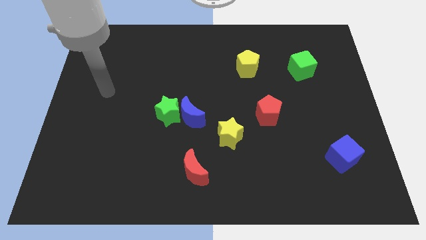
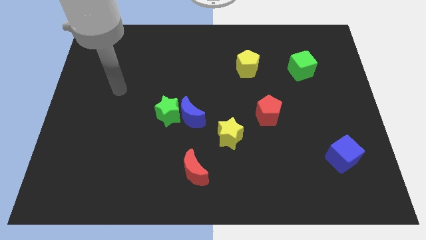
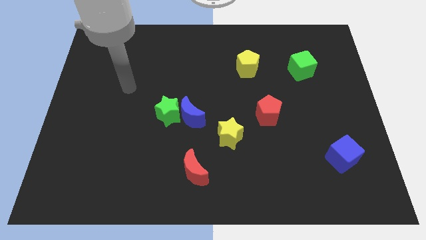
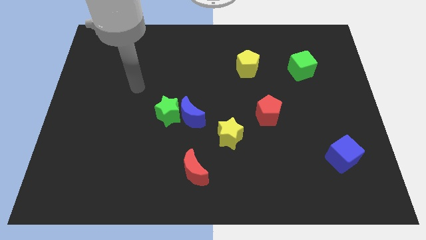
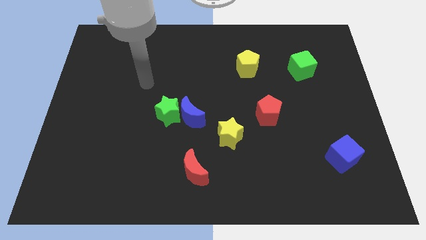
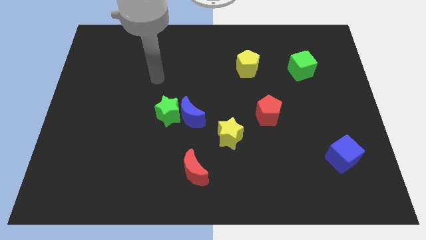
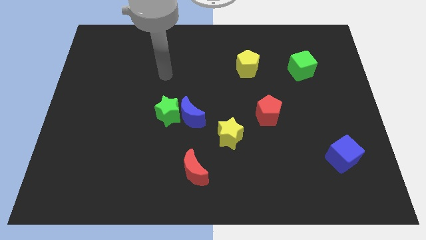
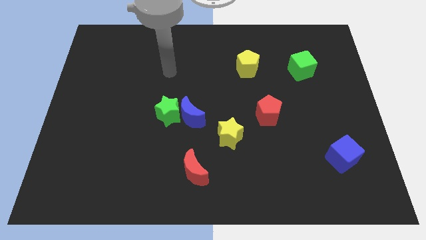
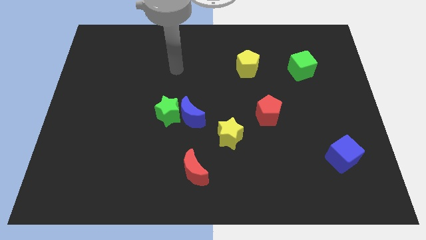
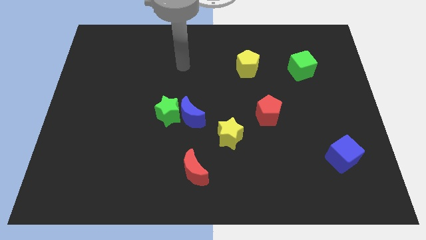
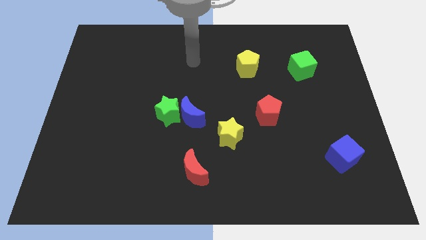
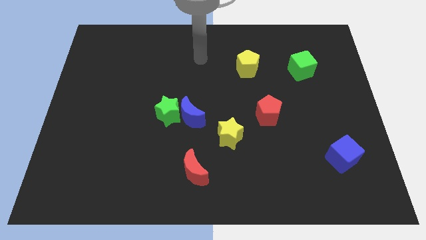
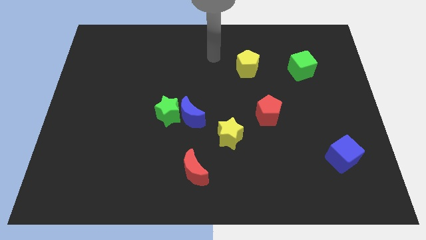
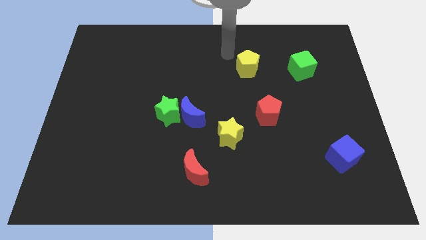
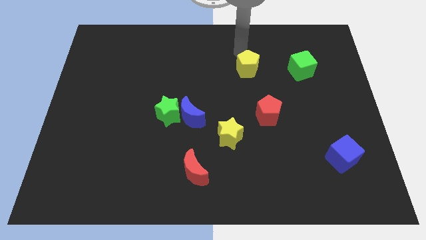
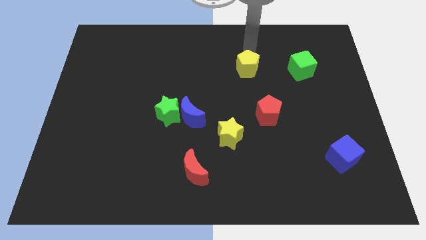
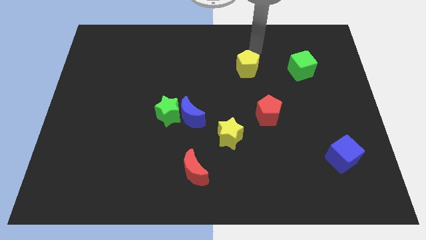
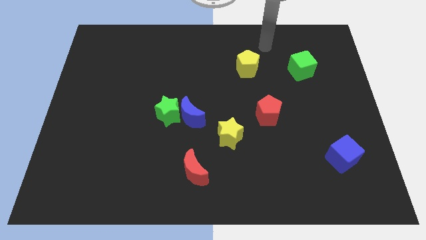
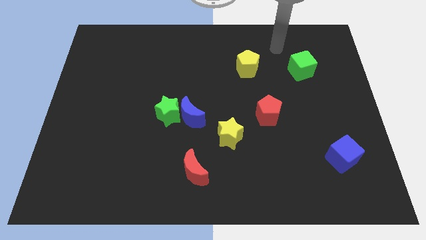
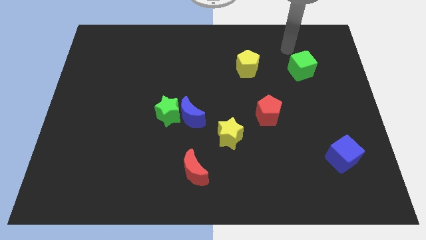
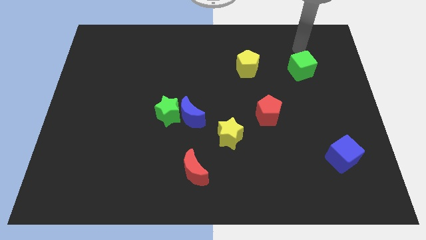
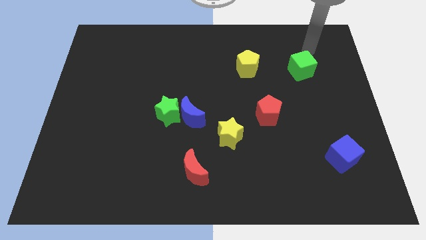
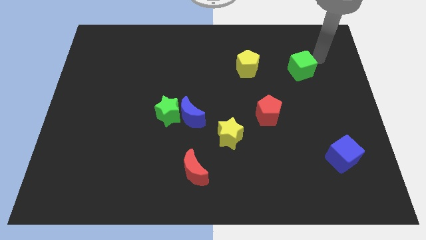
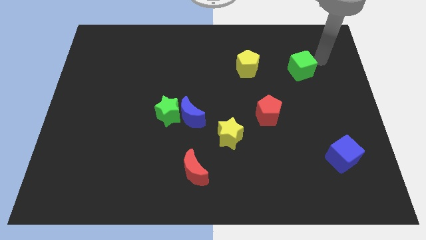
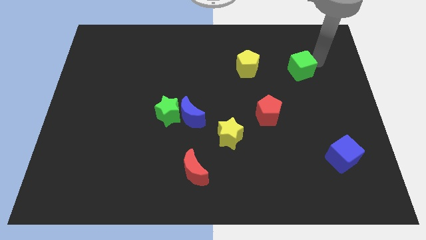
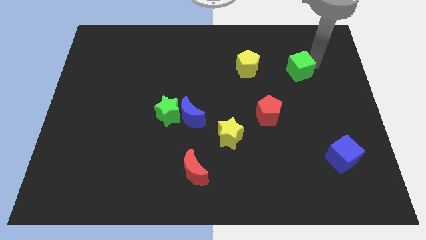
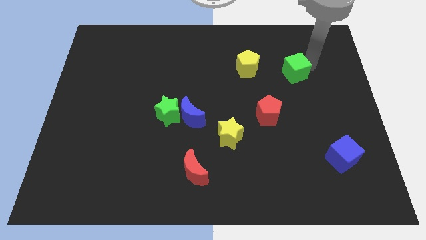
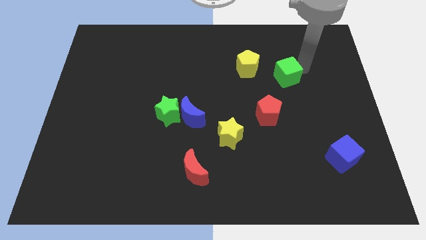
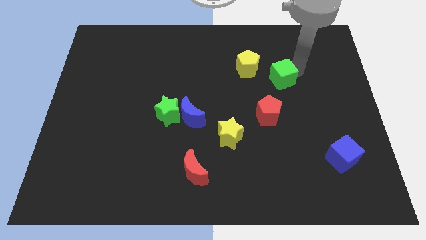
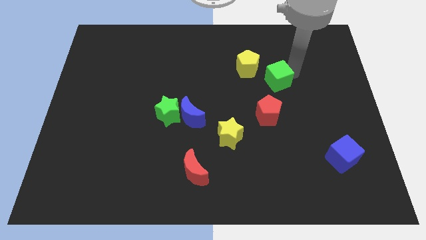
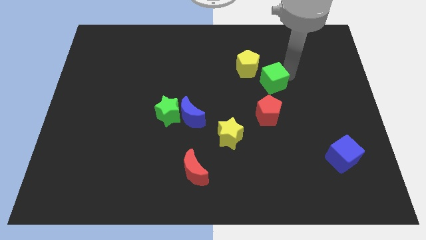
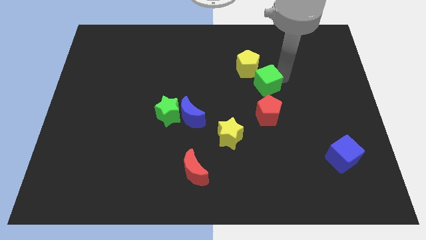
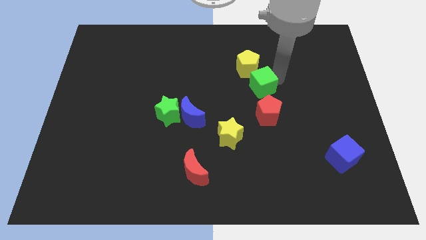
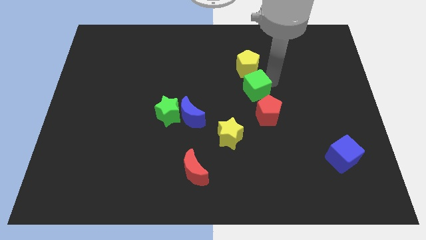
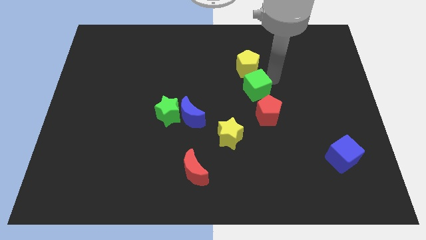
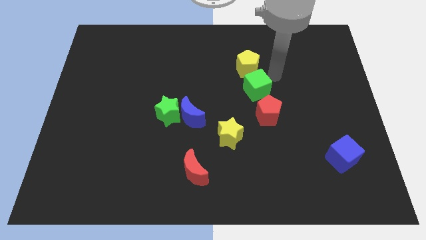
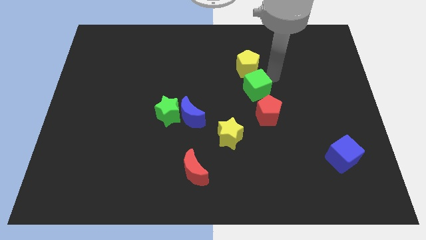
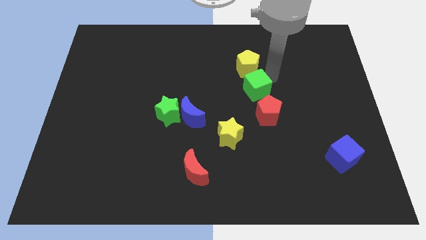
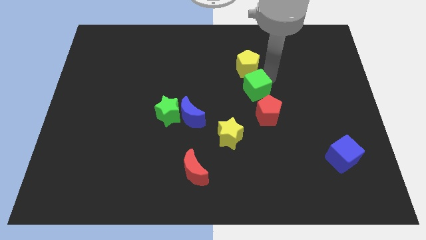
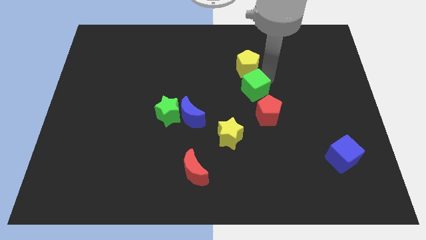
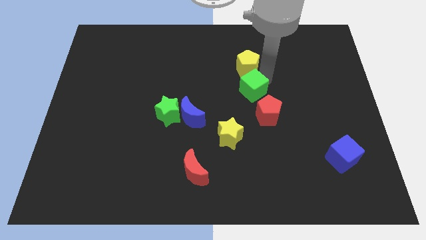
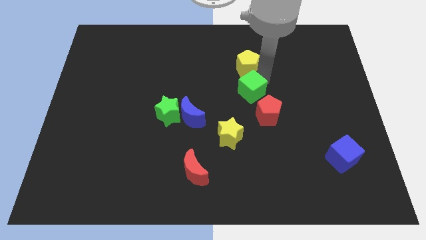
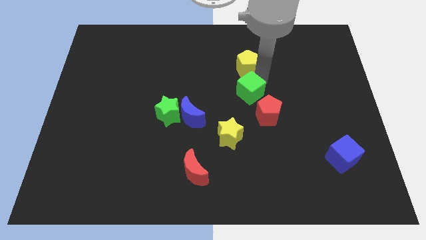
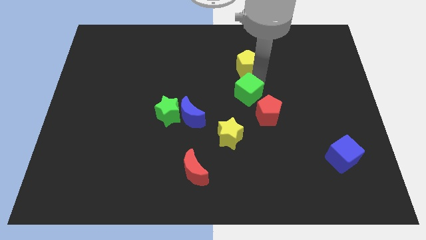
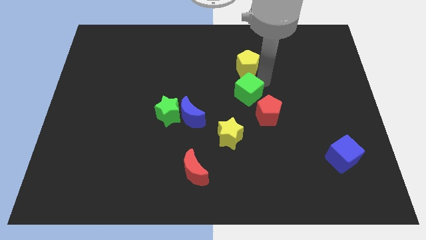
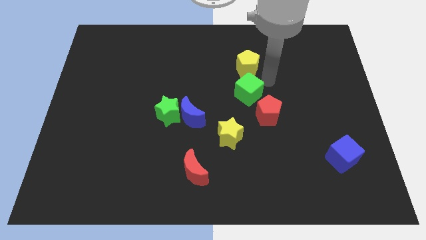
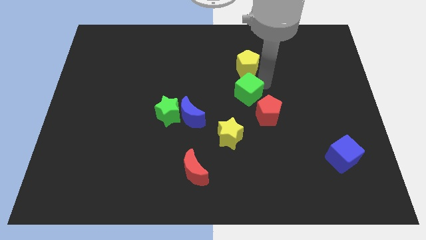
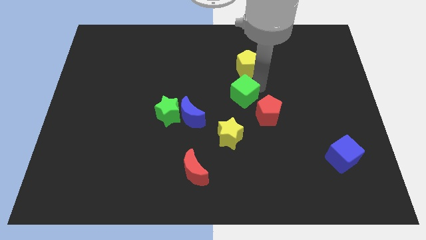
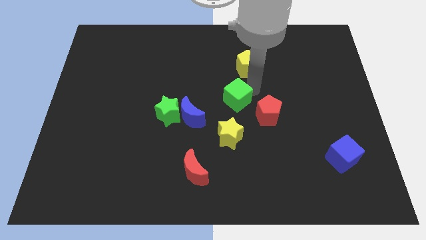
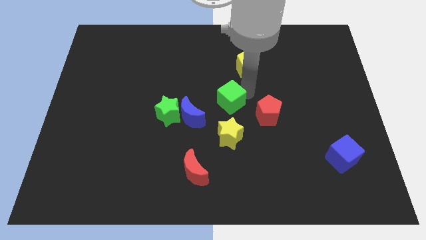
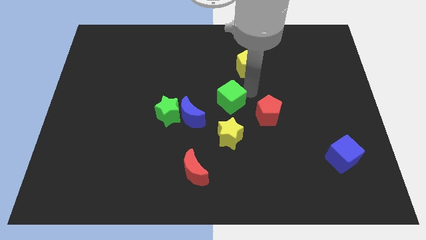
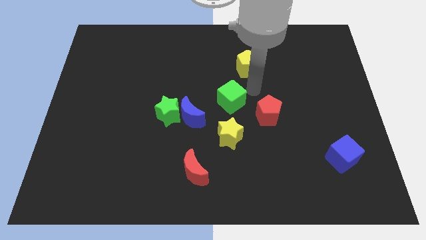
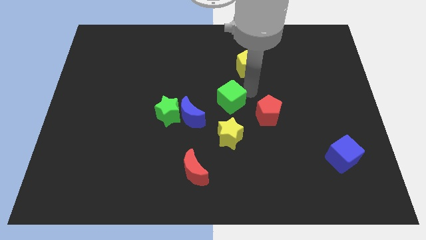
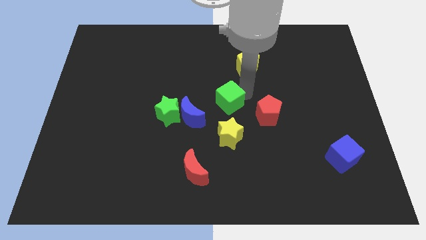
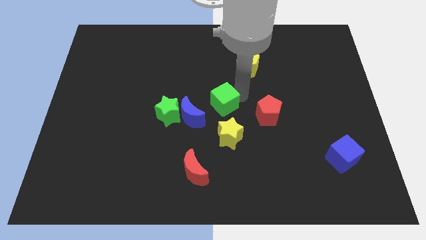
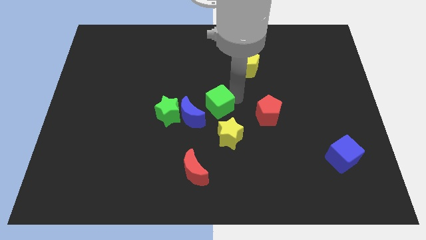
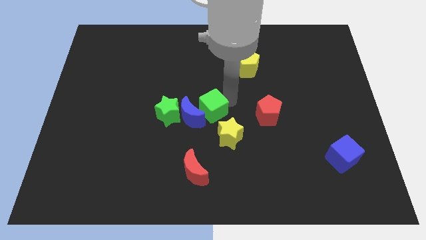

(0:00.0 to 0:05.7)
put the green cube towards the blue moon

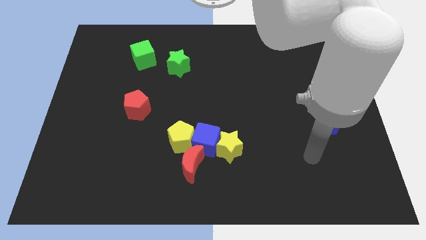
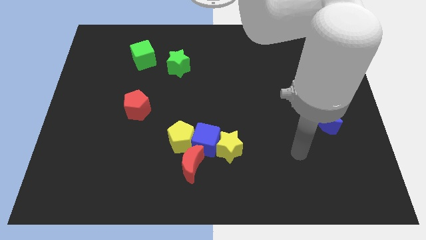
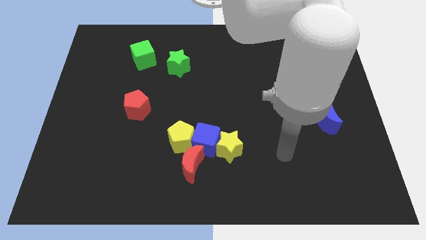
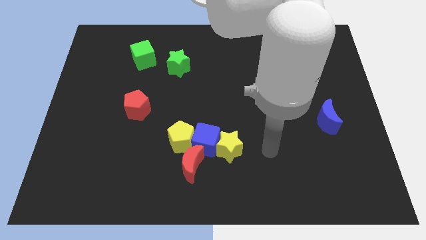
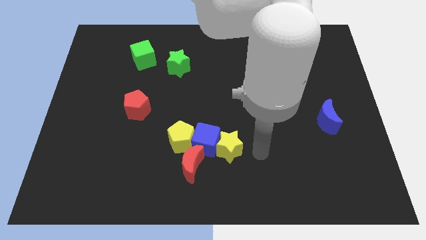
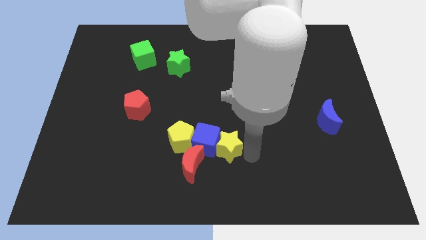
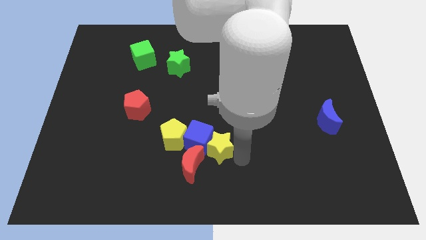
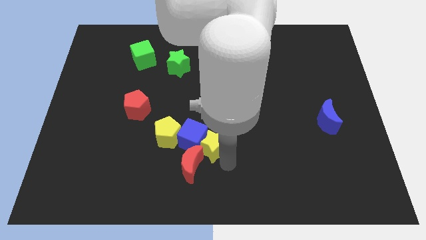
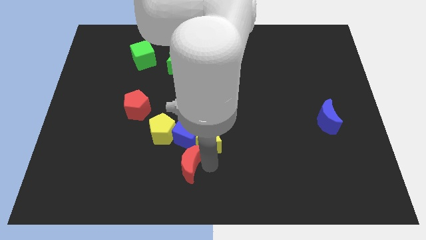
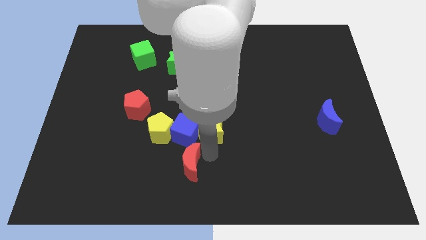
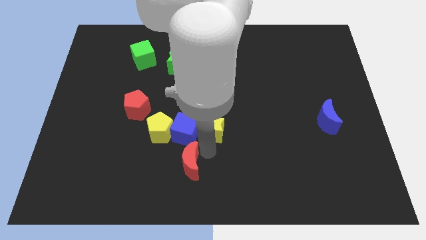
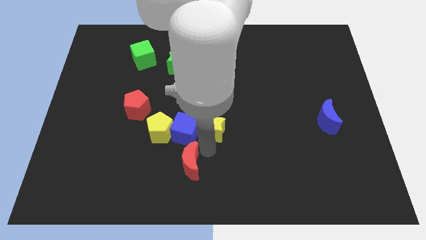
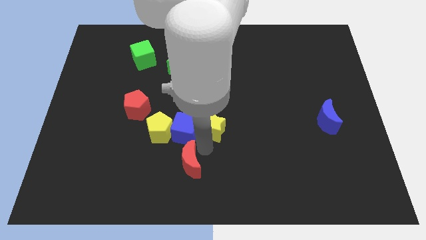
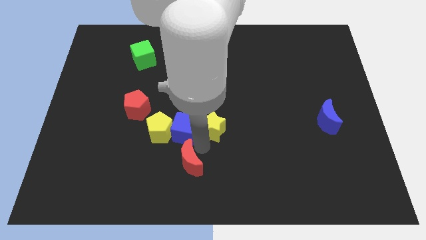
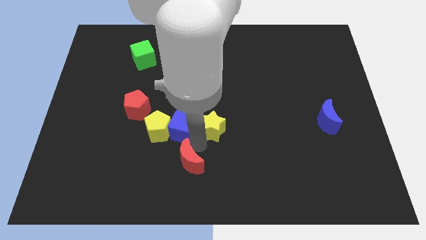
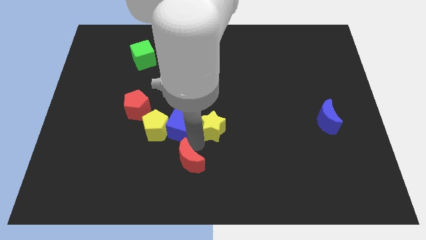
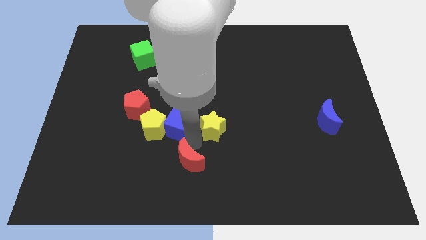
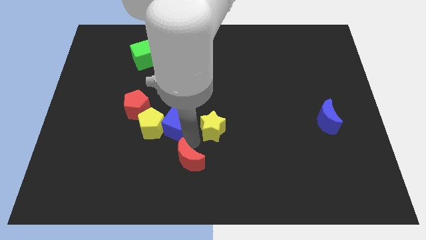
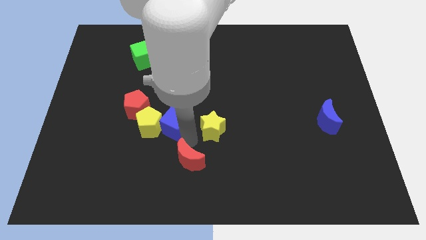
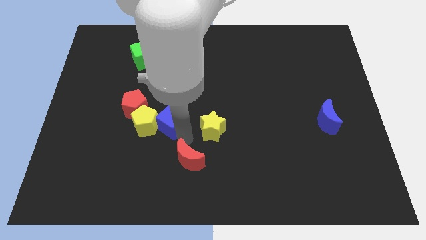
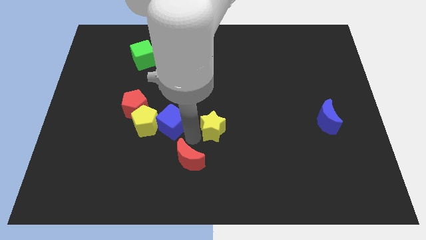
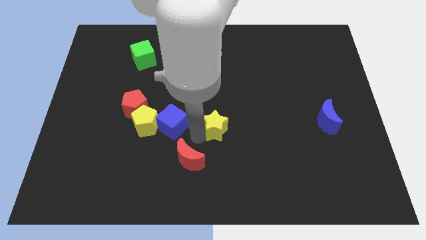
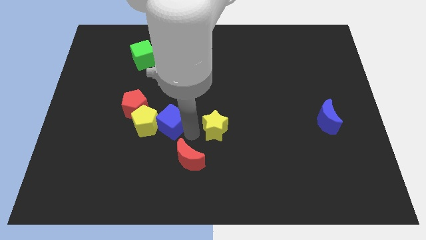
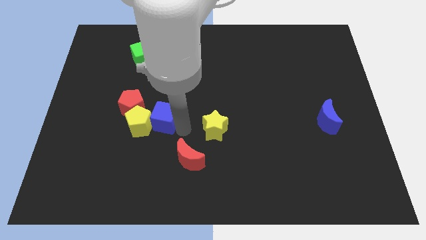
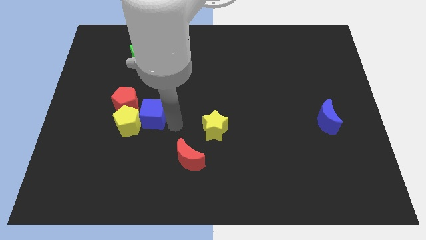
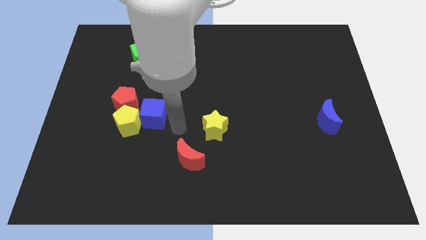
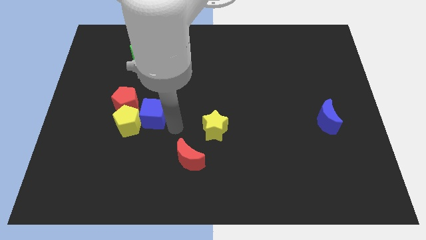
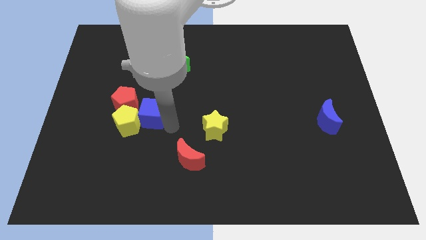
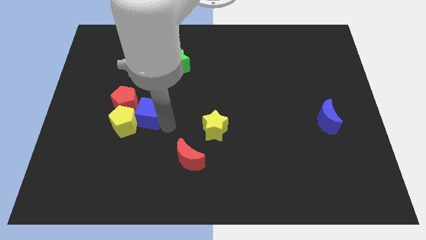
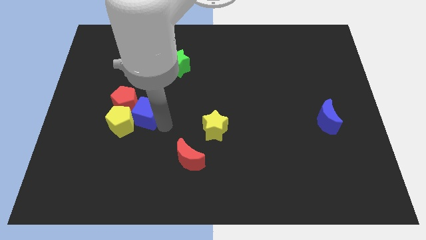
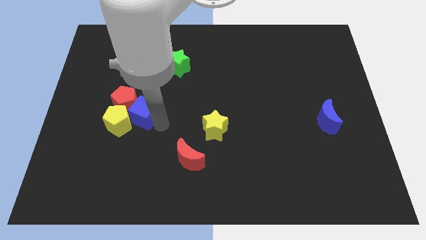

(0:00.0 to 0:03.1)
push the blue cube to the red pentagon
